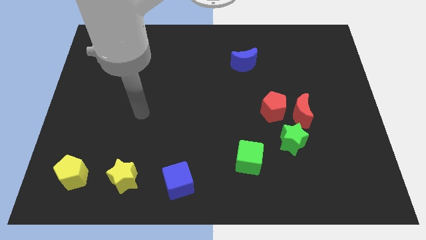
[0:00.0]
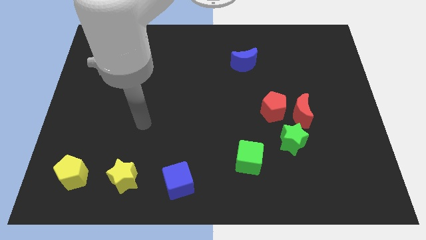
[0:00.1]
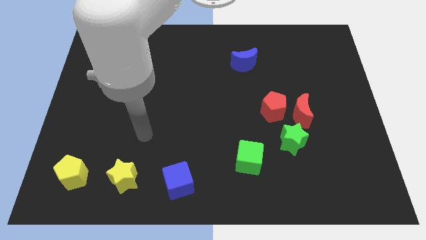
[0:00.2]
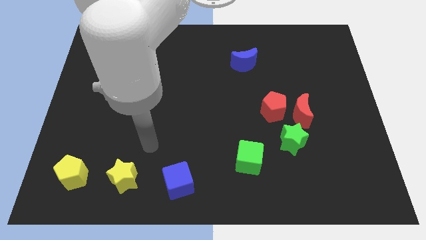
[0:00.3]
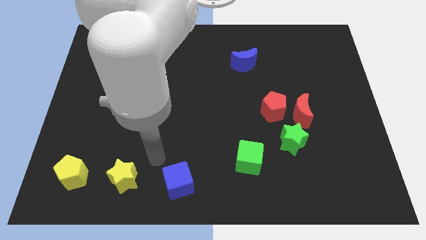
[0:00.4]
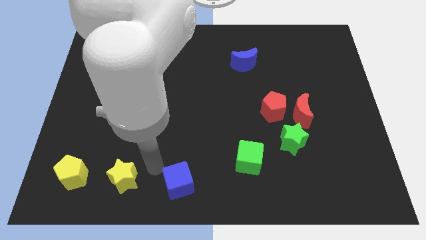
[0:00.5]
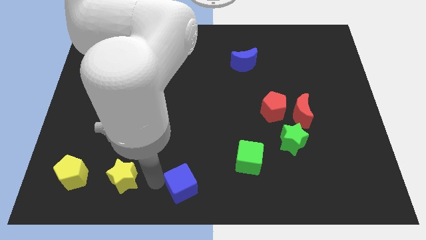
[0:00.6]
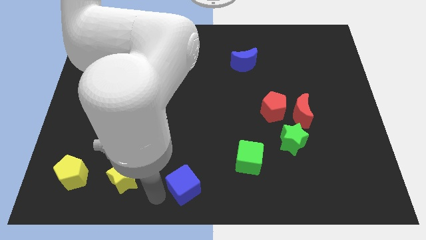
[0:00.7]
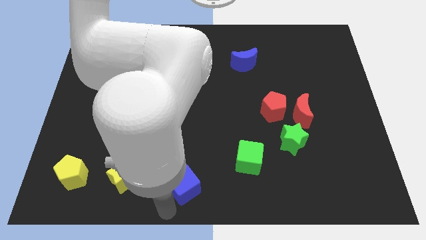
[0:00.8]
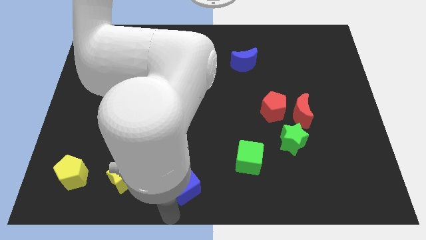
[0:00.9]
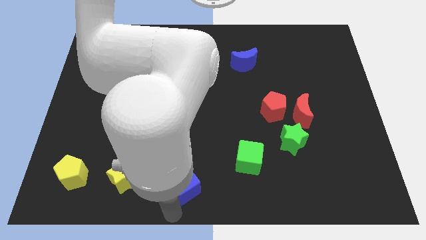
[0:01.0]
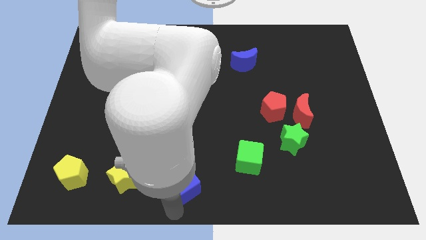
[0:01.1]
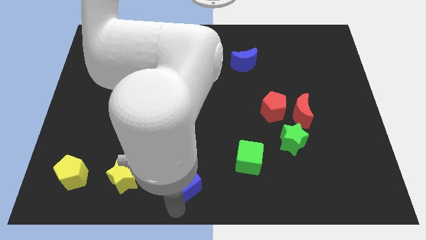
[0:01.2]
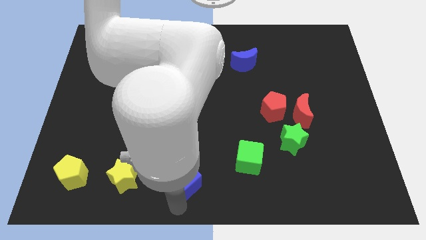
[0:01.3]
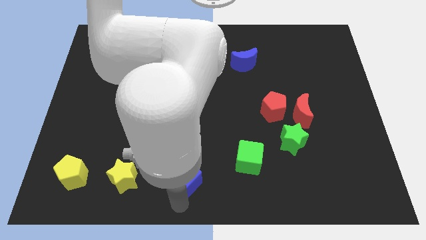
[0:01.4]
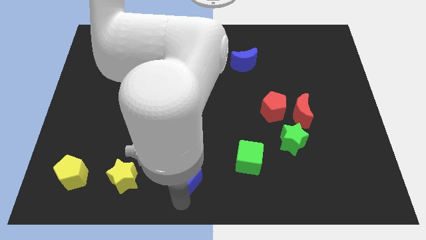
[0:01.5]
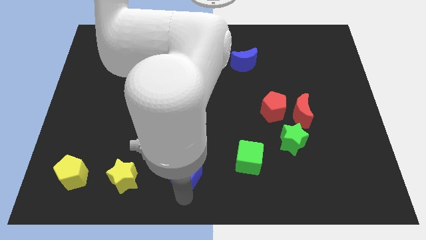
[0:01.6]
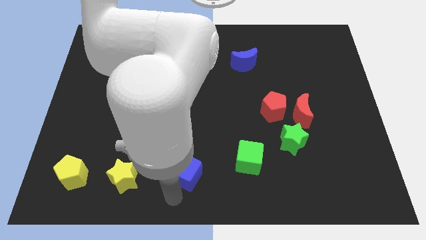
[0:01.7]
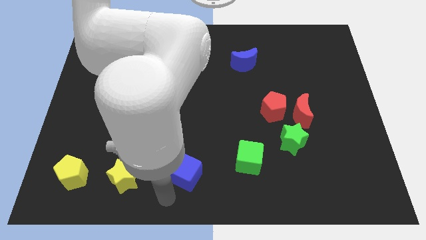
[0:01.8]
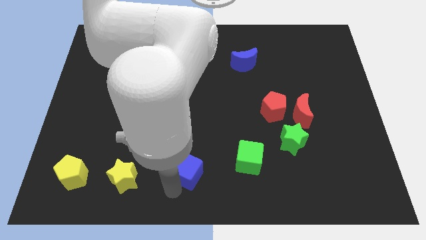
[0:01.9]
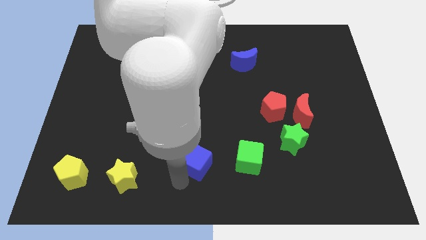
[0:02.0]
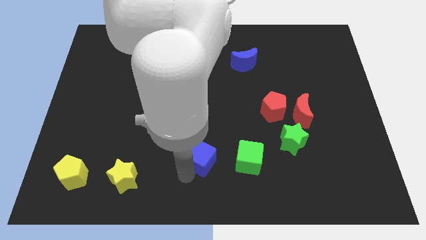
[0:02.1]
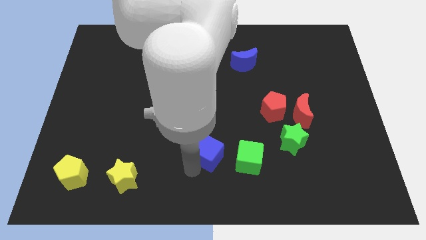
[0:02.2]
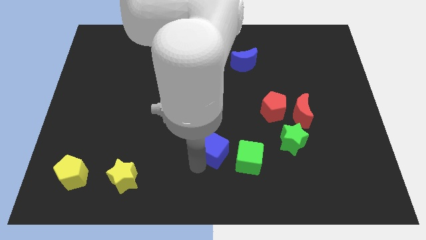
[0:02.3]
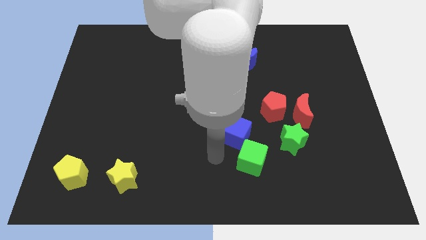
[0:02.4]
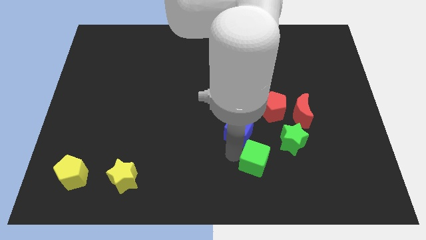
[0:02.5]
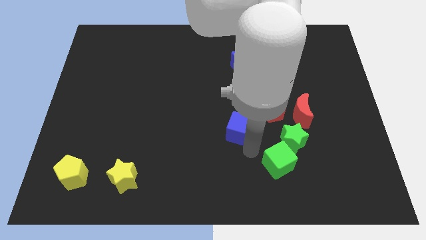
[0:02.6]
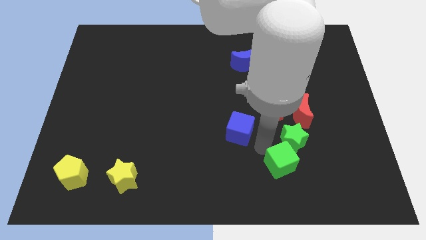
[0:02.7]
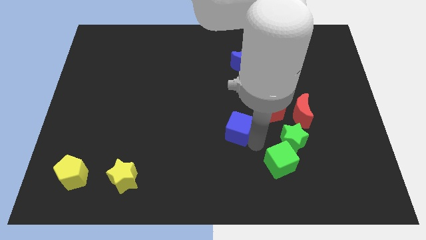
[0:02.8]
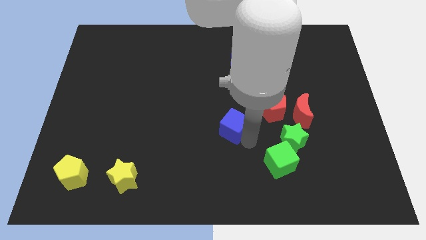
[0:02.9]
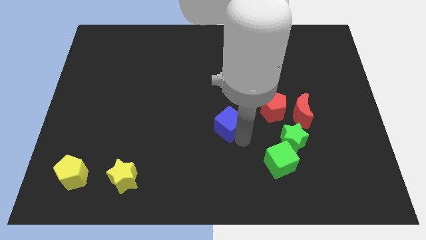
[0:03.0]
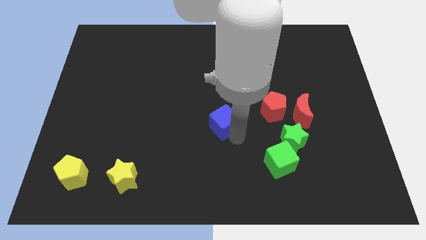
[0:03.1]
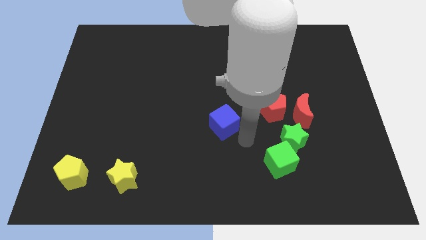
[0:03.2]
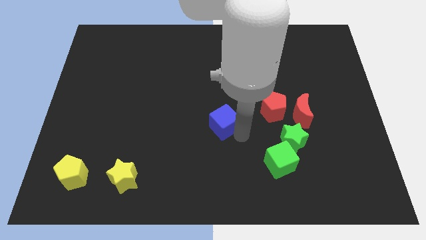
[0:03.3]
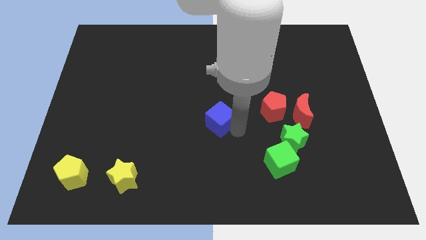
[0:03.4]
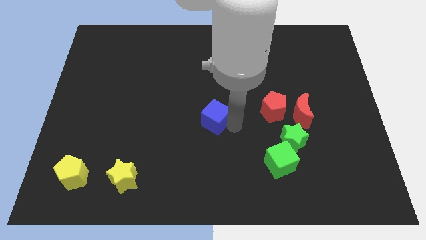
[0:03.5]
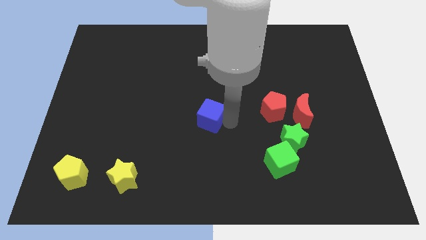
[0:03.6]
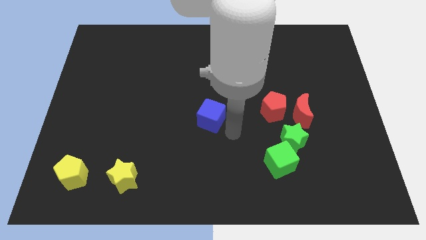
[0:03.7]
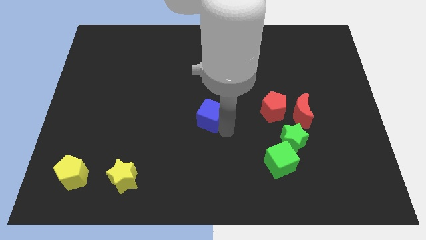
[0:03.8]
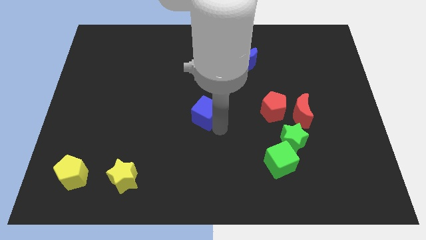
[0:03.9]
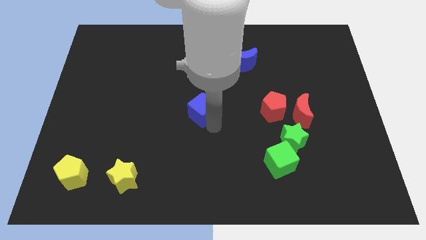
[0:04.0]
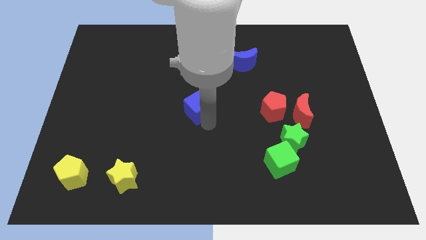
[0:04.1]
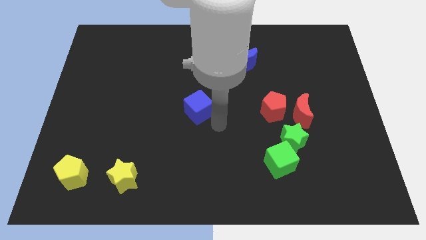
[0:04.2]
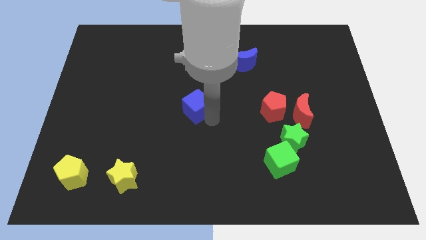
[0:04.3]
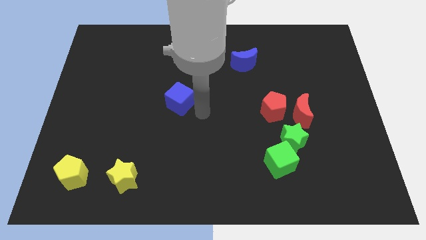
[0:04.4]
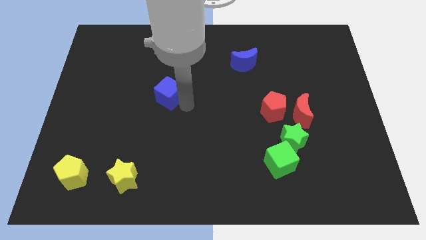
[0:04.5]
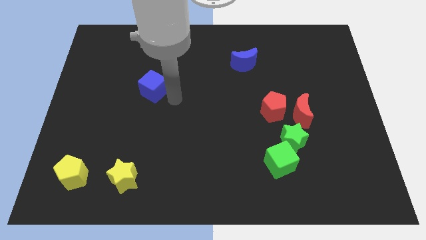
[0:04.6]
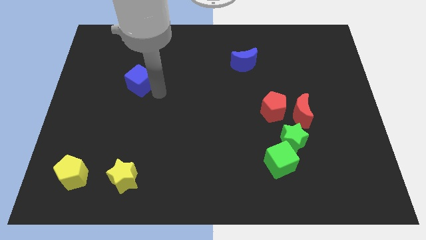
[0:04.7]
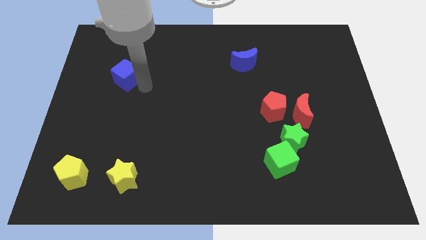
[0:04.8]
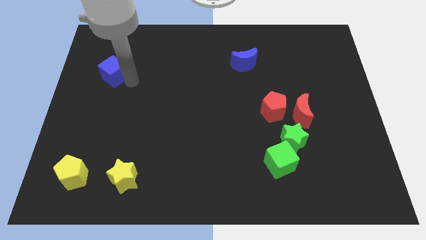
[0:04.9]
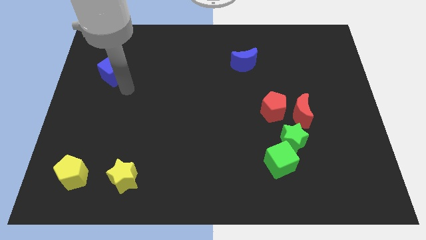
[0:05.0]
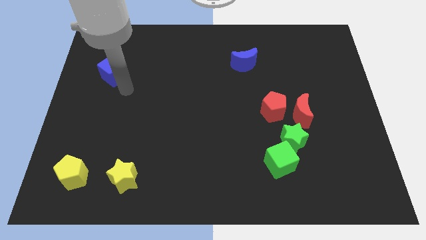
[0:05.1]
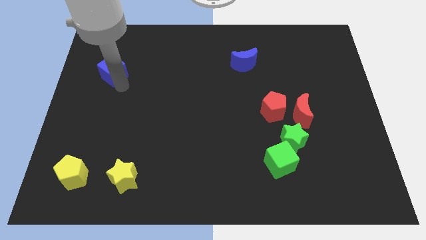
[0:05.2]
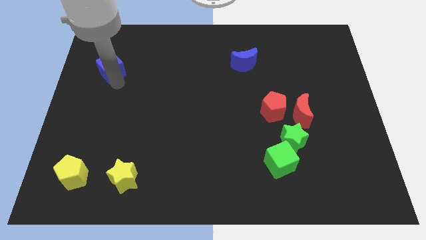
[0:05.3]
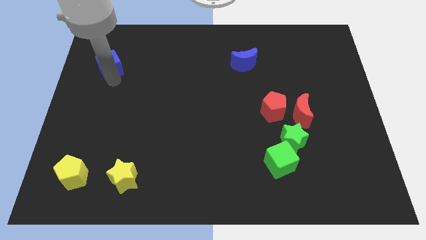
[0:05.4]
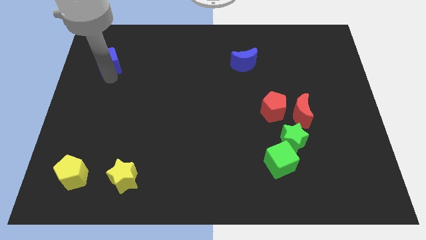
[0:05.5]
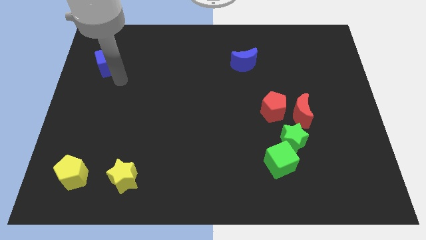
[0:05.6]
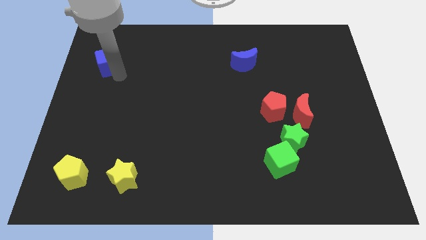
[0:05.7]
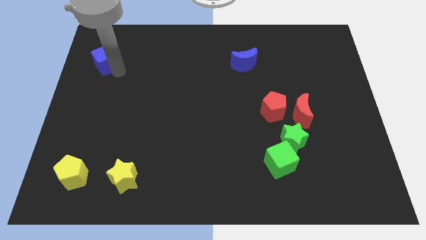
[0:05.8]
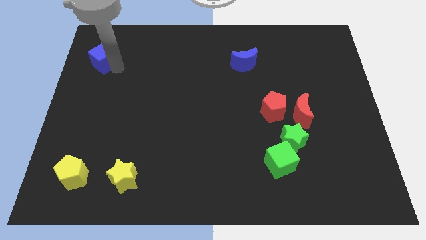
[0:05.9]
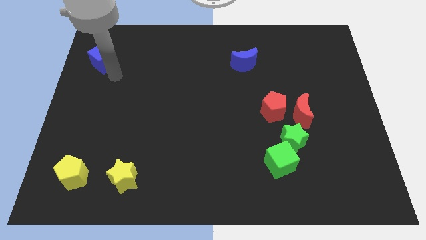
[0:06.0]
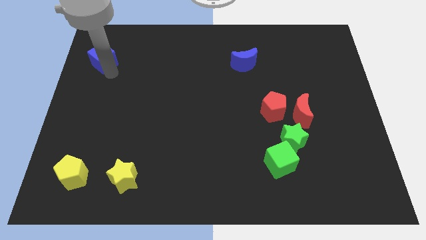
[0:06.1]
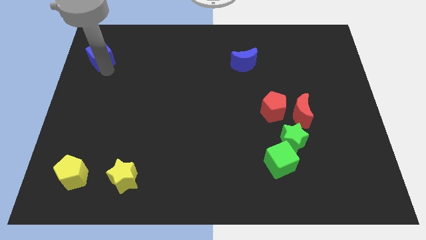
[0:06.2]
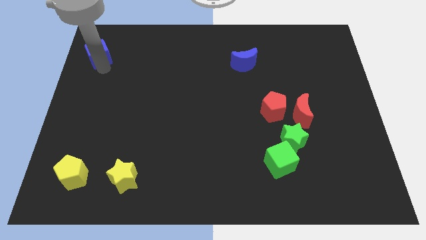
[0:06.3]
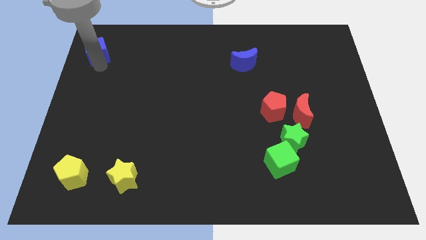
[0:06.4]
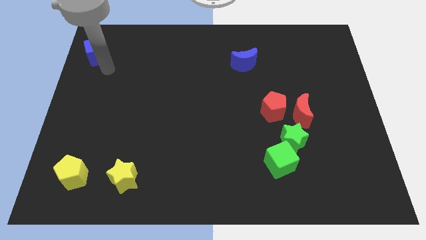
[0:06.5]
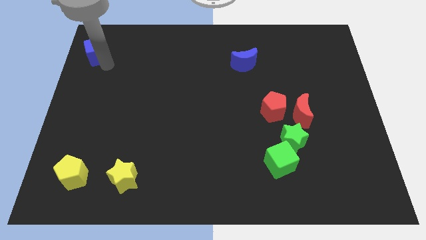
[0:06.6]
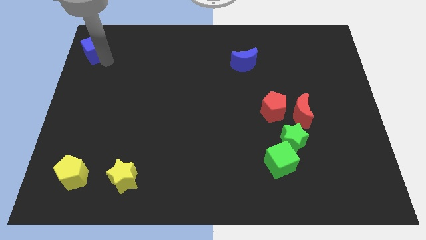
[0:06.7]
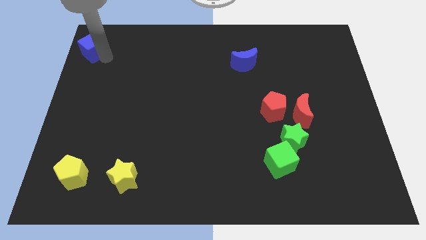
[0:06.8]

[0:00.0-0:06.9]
put the blue cube to the top left corner
